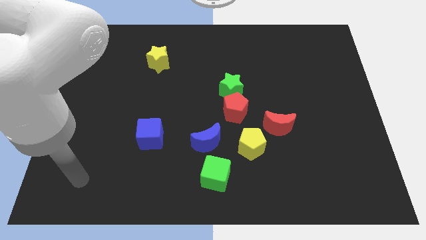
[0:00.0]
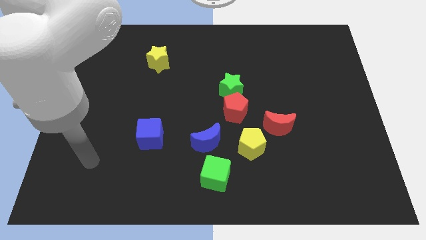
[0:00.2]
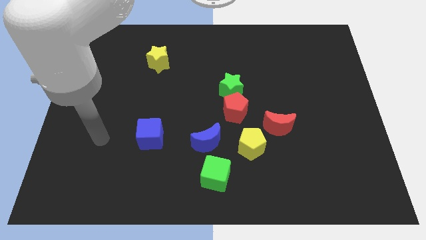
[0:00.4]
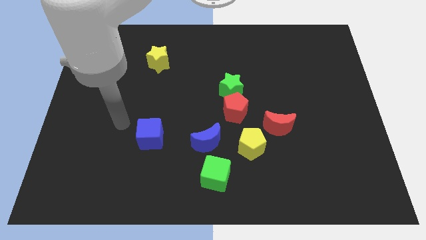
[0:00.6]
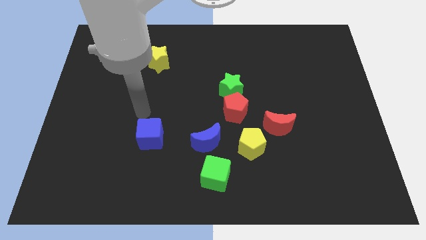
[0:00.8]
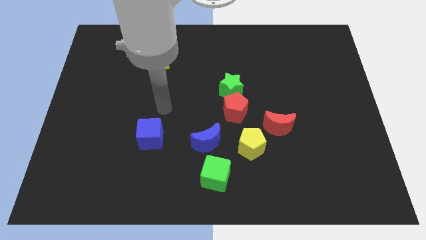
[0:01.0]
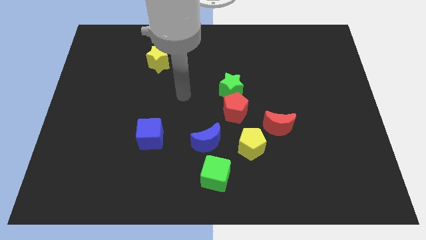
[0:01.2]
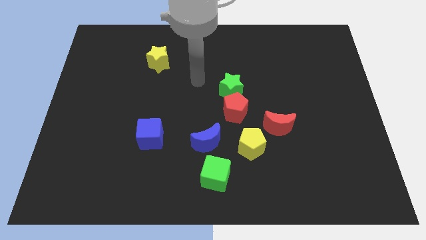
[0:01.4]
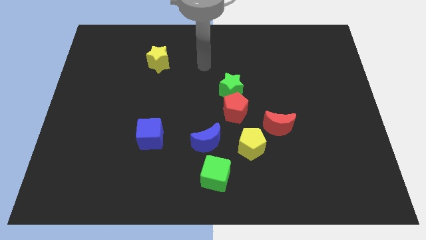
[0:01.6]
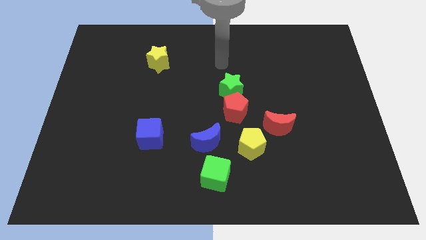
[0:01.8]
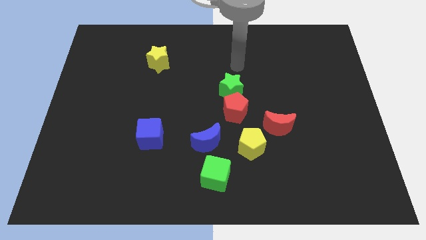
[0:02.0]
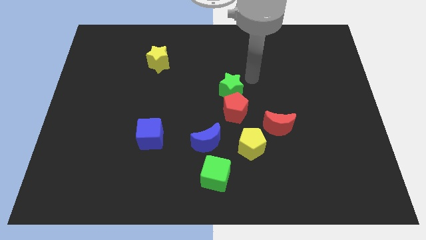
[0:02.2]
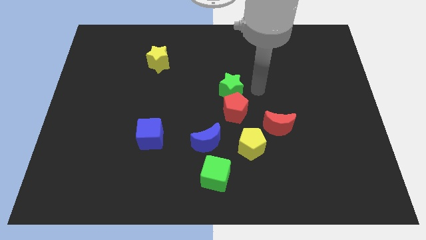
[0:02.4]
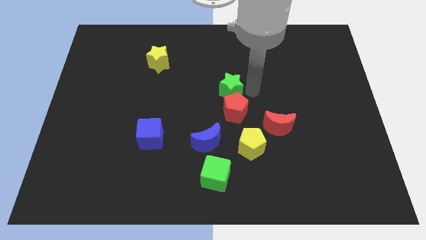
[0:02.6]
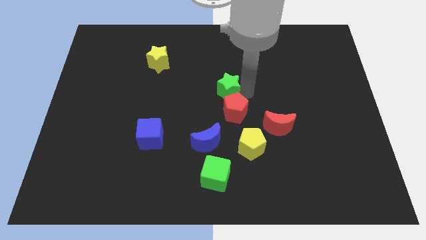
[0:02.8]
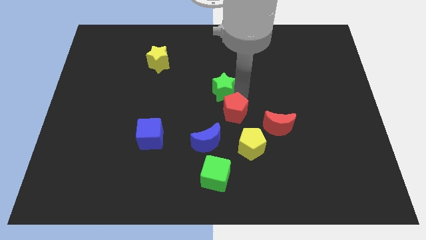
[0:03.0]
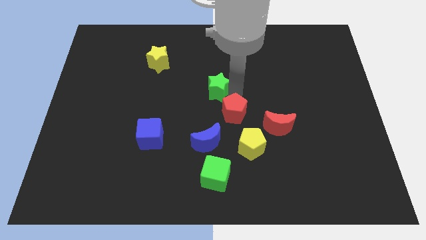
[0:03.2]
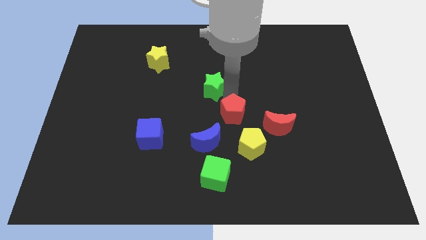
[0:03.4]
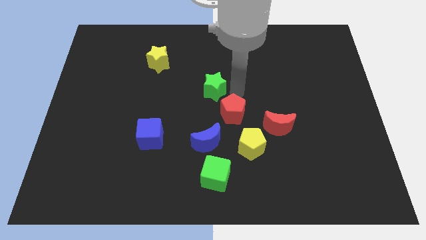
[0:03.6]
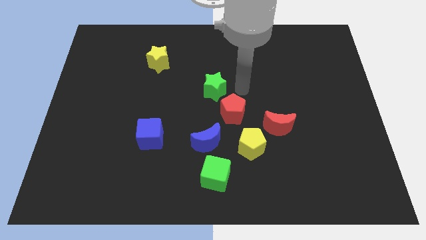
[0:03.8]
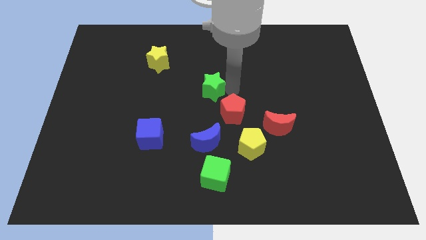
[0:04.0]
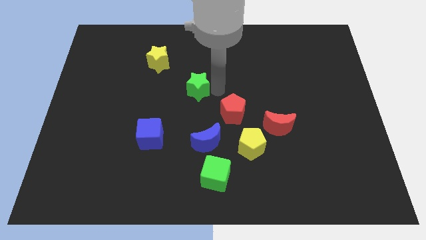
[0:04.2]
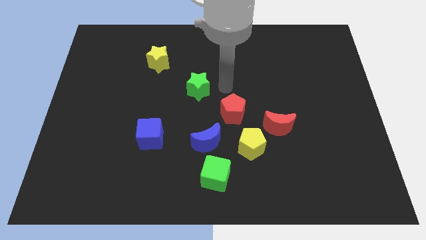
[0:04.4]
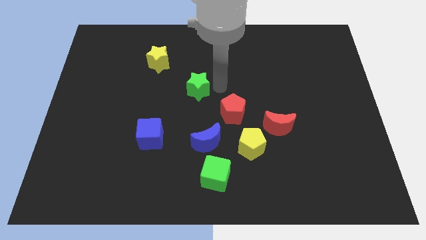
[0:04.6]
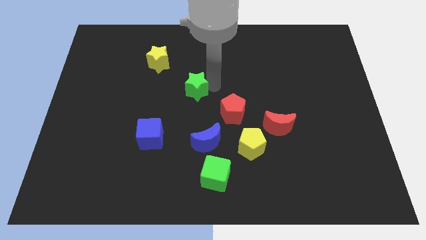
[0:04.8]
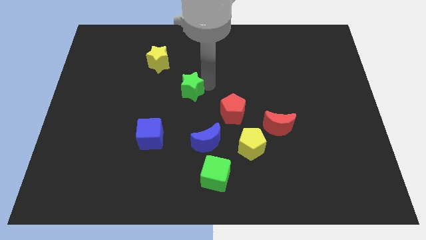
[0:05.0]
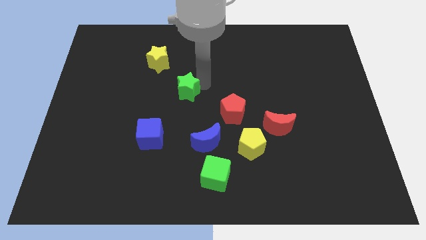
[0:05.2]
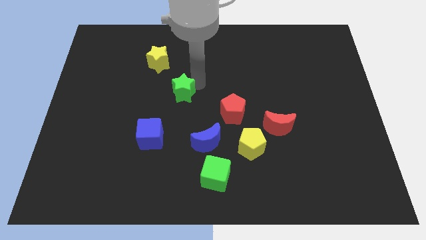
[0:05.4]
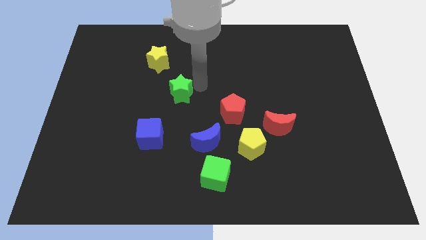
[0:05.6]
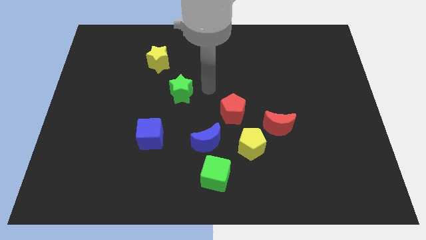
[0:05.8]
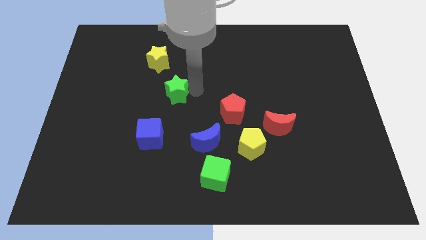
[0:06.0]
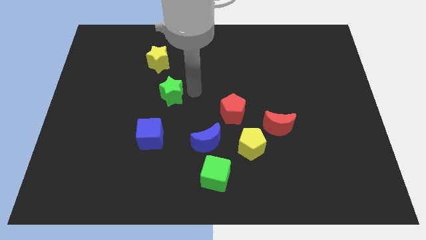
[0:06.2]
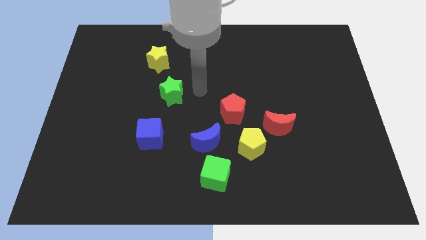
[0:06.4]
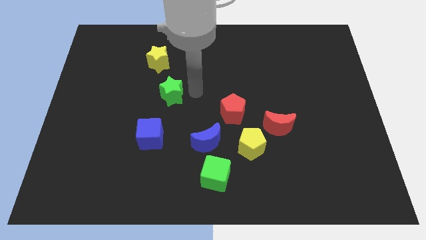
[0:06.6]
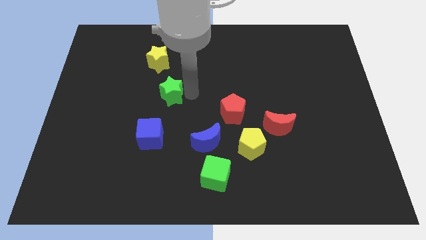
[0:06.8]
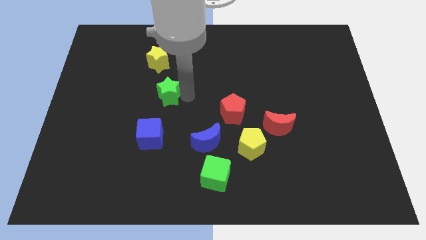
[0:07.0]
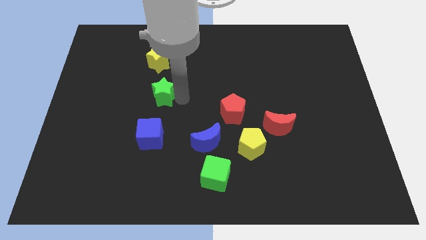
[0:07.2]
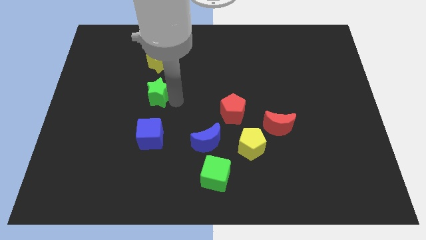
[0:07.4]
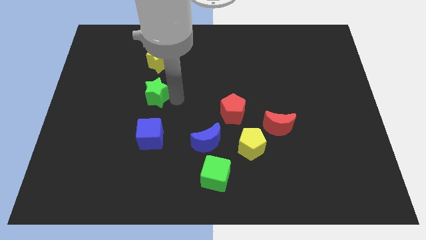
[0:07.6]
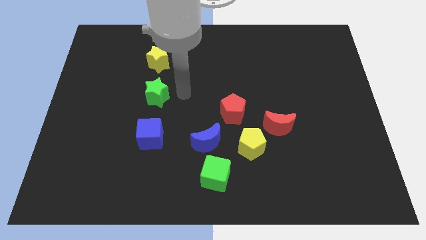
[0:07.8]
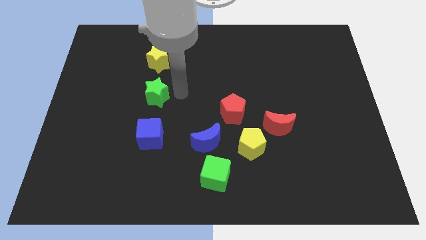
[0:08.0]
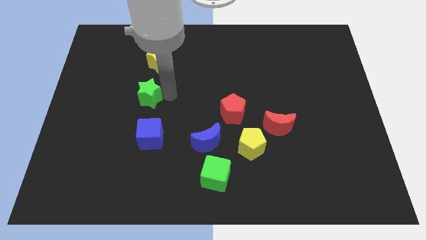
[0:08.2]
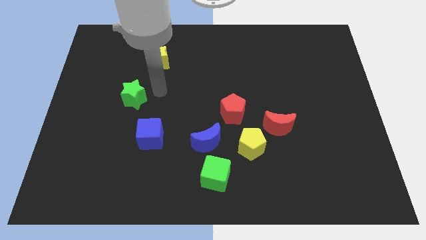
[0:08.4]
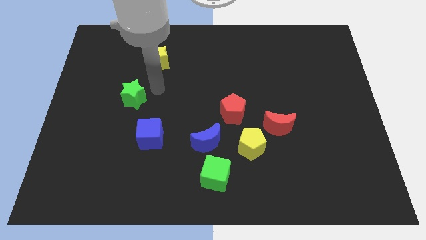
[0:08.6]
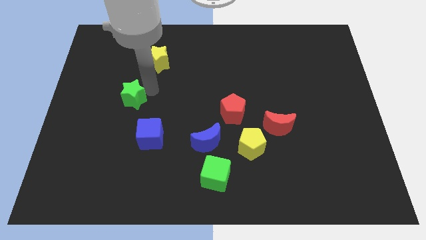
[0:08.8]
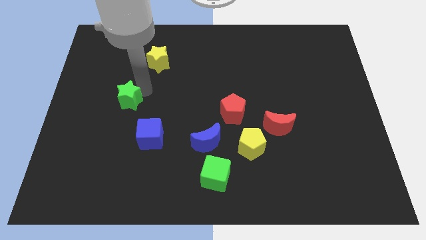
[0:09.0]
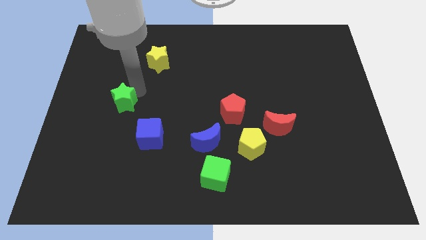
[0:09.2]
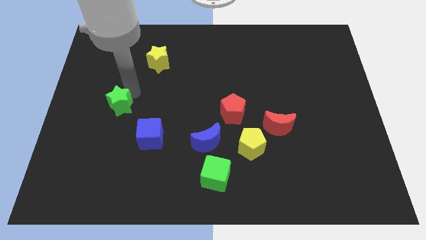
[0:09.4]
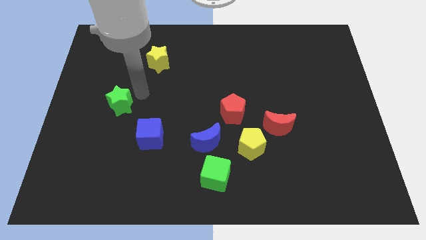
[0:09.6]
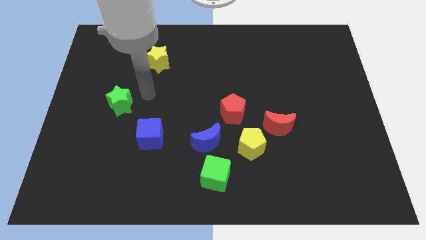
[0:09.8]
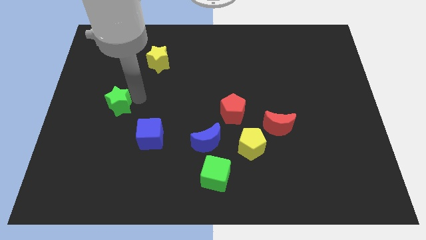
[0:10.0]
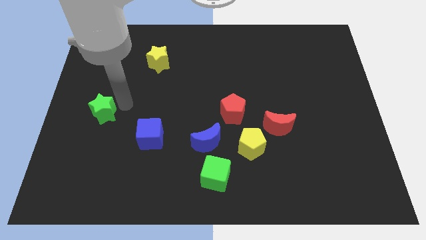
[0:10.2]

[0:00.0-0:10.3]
move the green star to the left side of the board

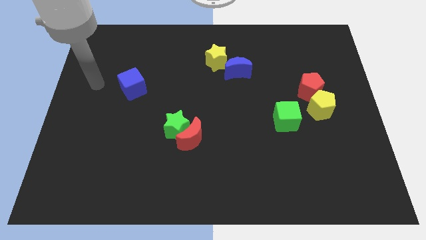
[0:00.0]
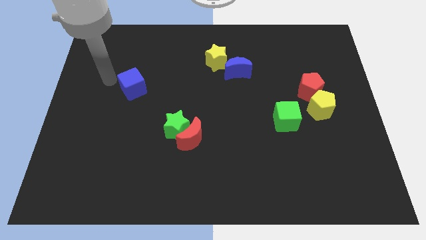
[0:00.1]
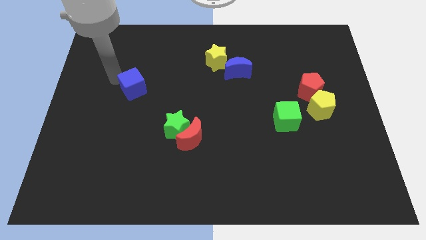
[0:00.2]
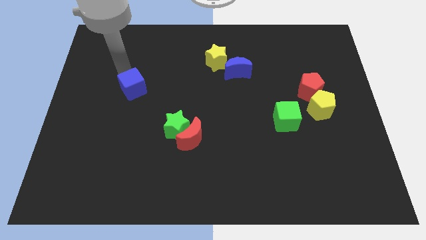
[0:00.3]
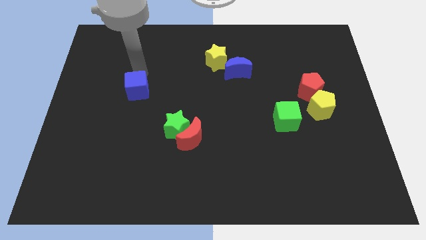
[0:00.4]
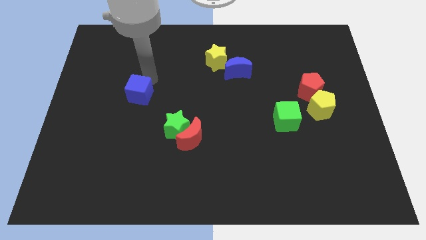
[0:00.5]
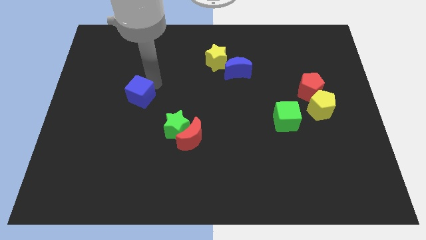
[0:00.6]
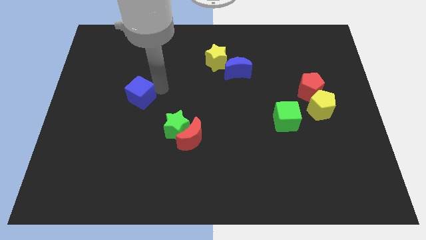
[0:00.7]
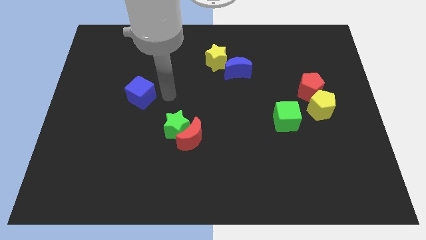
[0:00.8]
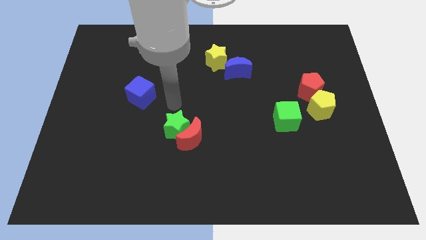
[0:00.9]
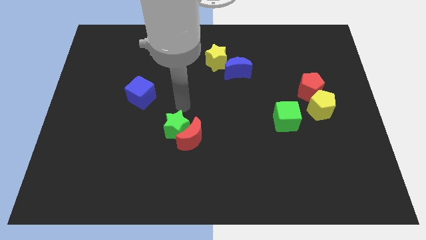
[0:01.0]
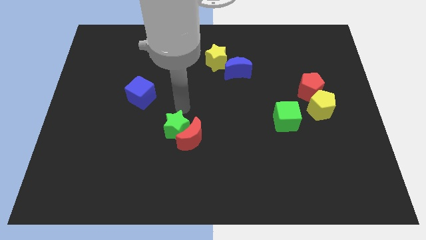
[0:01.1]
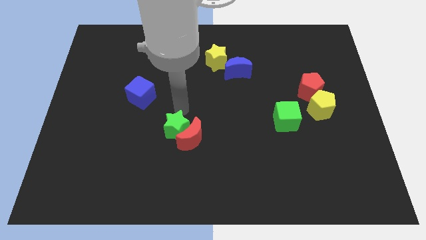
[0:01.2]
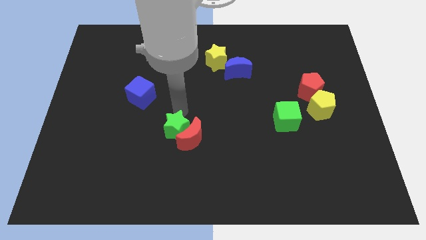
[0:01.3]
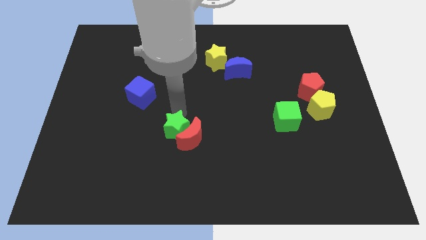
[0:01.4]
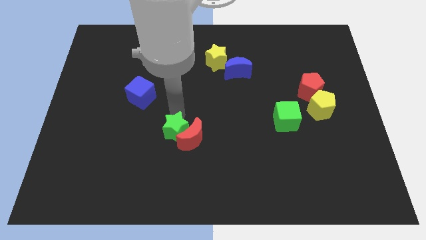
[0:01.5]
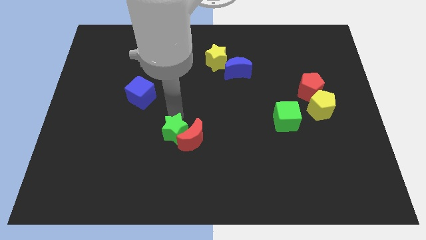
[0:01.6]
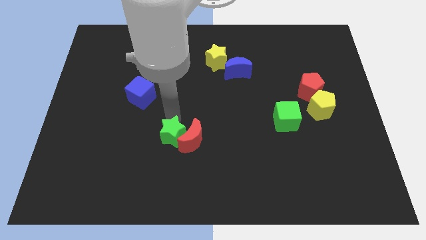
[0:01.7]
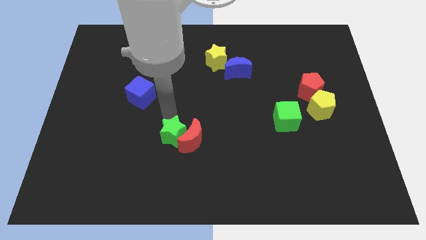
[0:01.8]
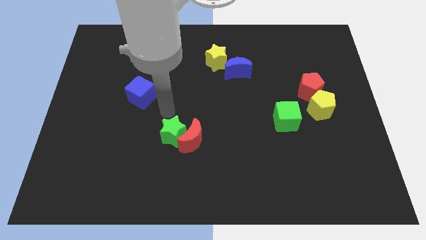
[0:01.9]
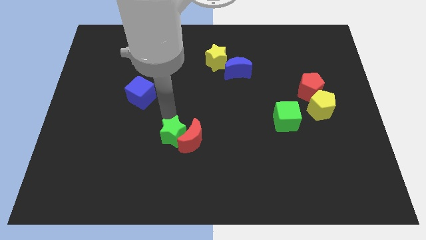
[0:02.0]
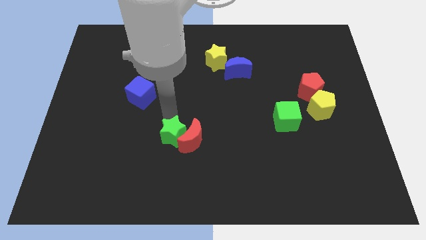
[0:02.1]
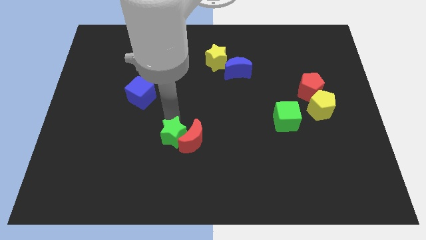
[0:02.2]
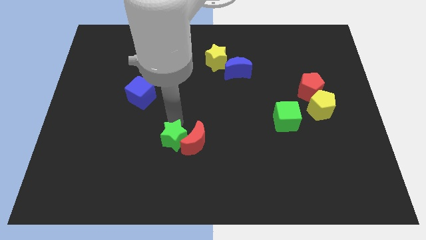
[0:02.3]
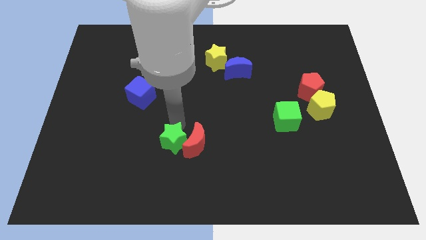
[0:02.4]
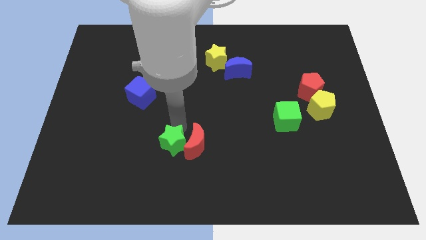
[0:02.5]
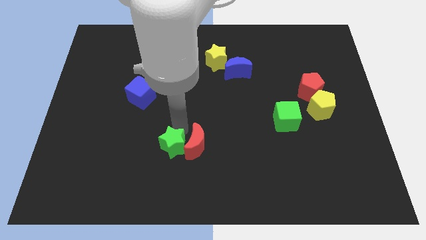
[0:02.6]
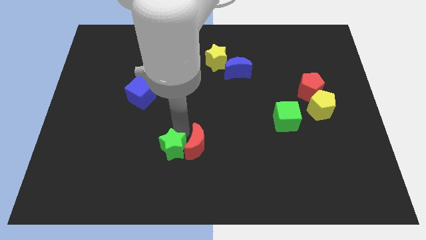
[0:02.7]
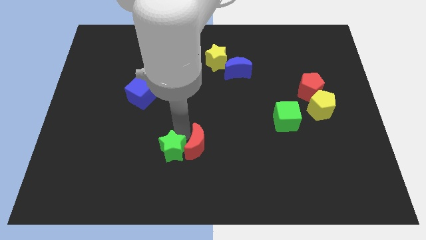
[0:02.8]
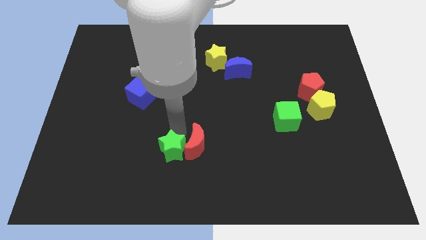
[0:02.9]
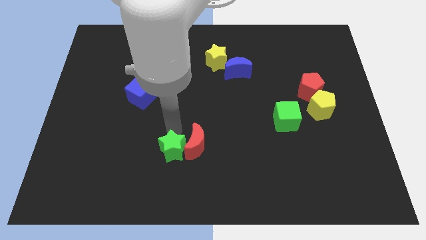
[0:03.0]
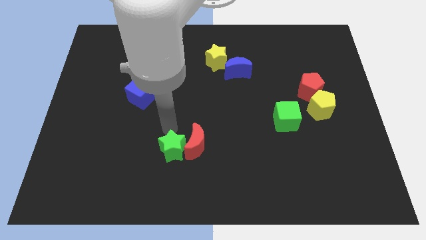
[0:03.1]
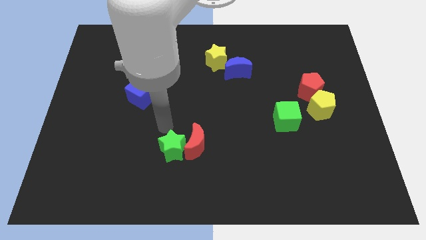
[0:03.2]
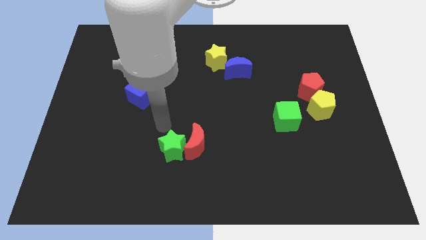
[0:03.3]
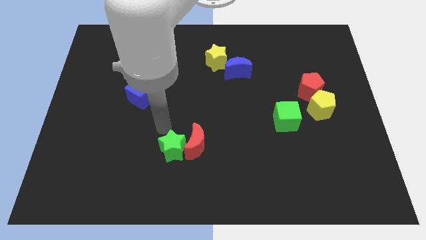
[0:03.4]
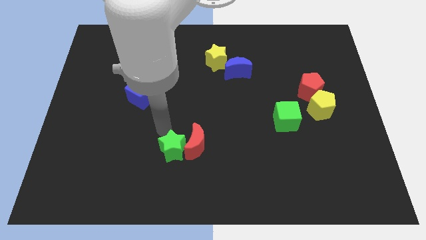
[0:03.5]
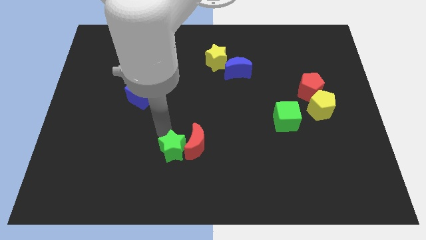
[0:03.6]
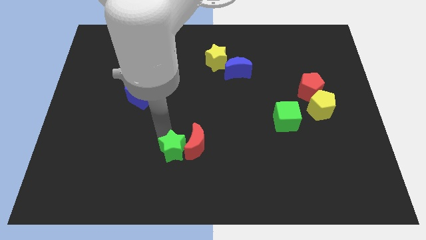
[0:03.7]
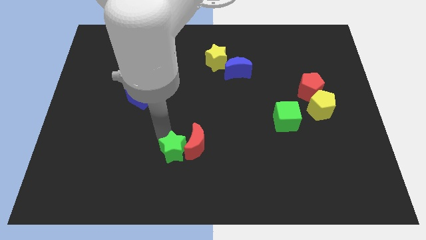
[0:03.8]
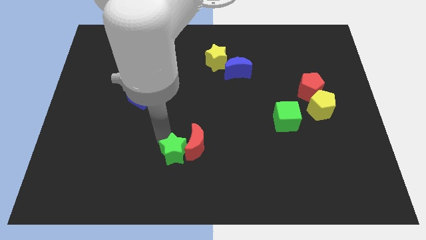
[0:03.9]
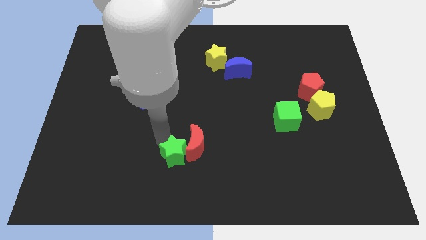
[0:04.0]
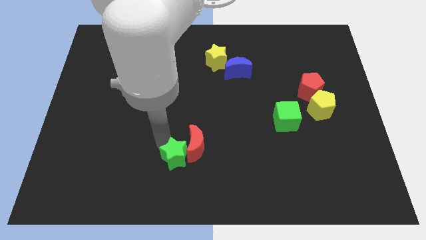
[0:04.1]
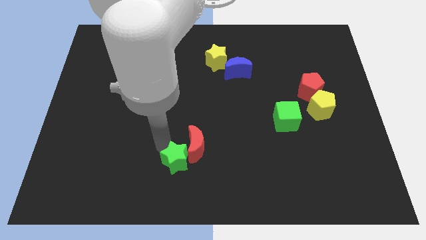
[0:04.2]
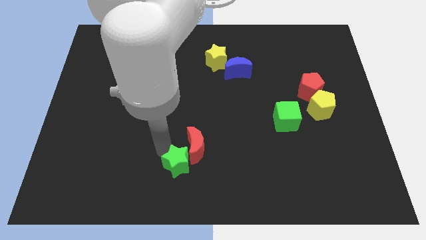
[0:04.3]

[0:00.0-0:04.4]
move the green star to the bottom side
